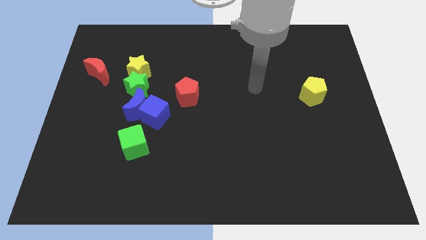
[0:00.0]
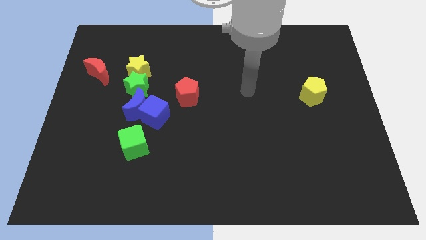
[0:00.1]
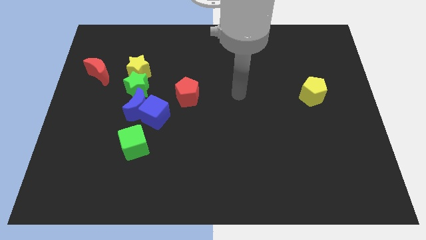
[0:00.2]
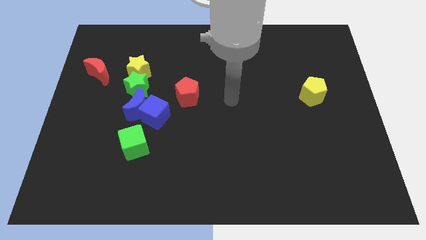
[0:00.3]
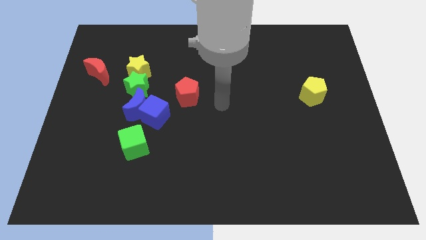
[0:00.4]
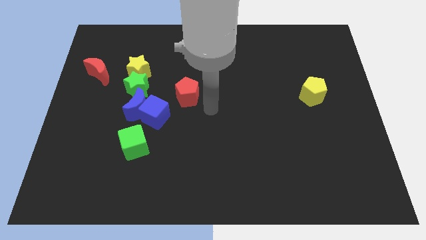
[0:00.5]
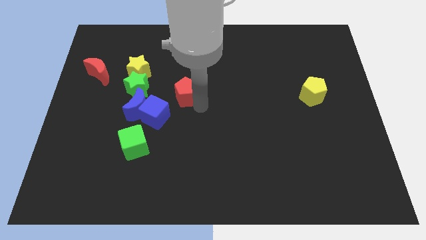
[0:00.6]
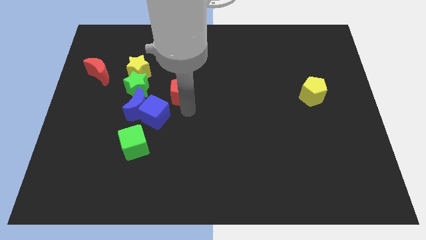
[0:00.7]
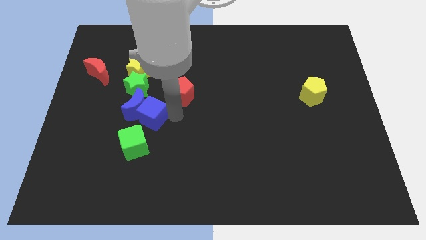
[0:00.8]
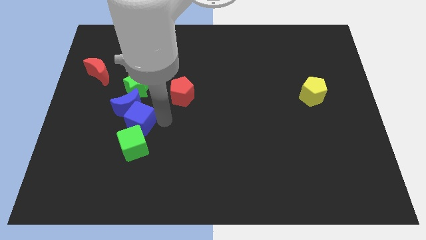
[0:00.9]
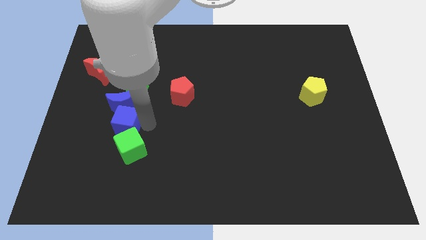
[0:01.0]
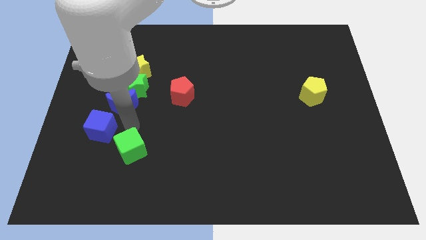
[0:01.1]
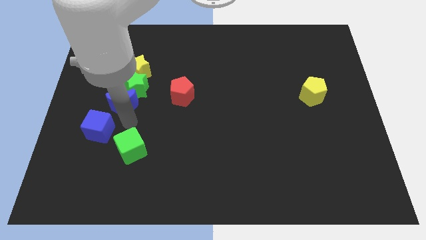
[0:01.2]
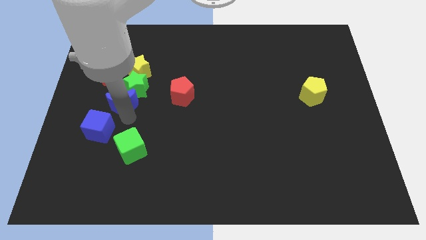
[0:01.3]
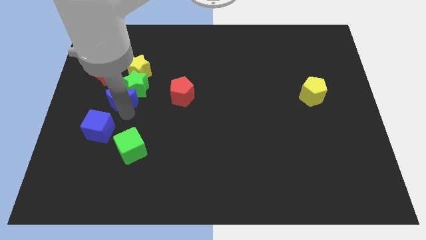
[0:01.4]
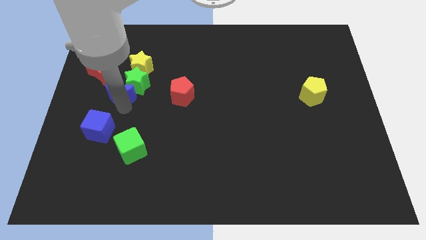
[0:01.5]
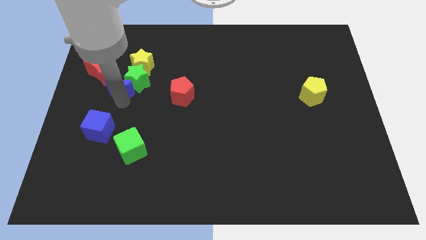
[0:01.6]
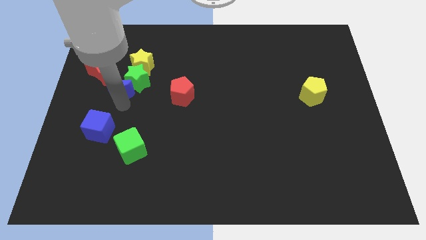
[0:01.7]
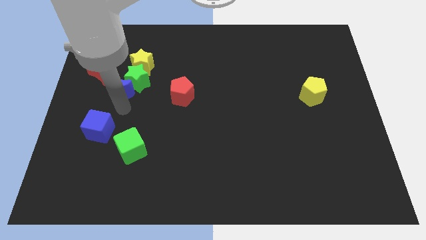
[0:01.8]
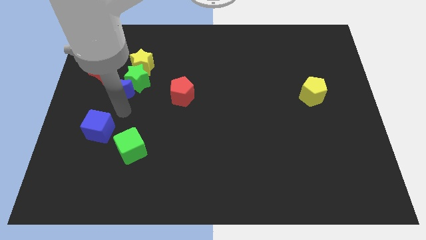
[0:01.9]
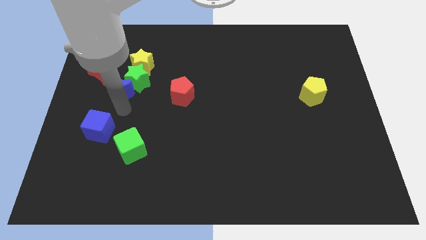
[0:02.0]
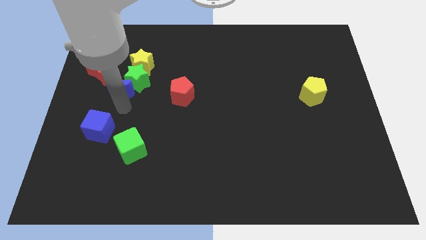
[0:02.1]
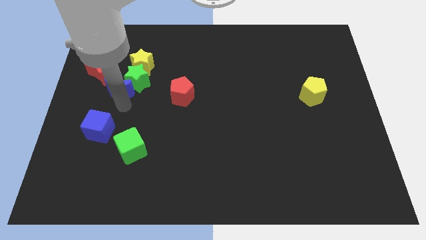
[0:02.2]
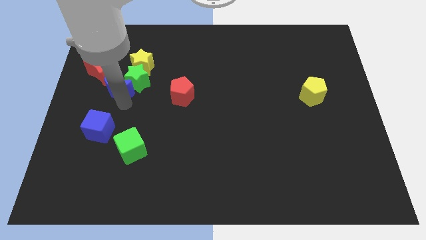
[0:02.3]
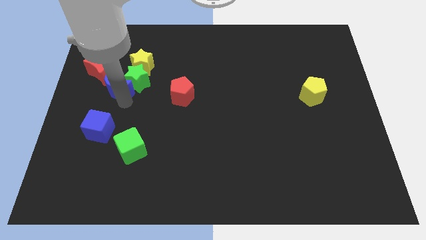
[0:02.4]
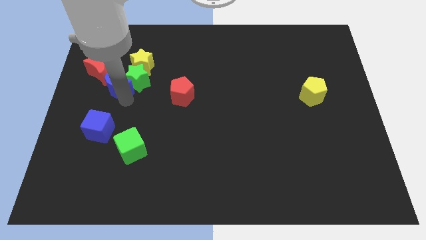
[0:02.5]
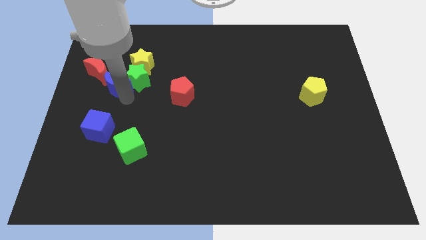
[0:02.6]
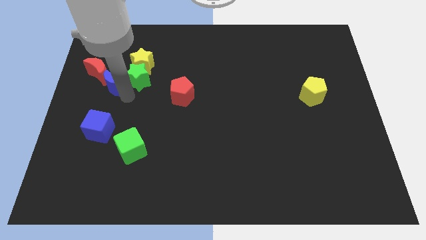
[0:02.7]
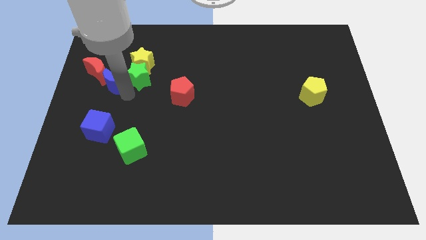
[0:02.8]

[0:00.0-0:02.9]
separate the blue moon from the clump

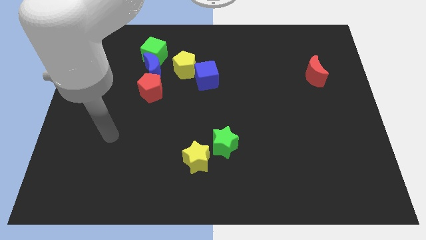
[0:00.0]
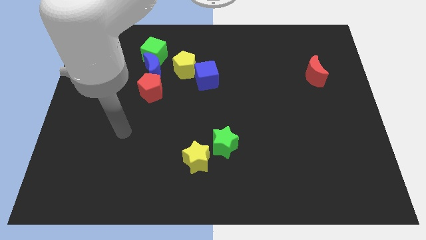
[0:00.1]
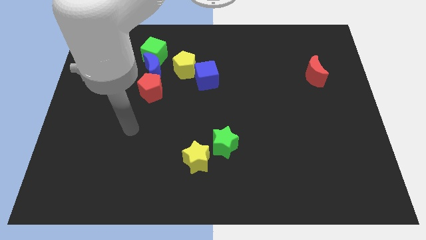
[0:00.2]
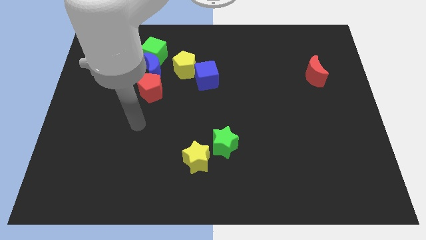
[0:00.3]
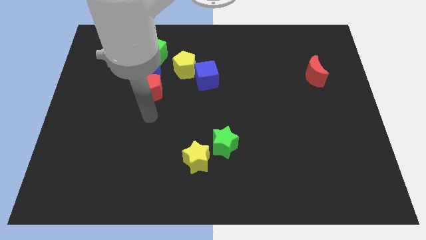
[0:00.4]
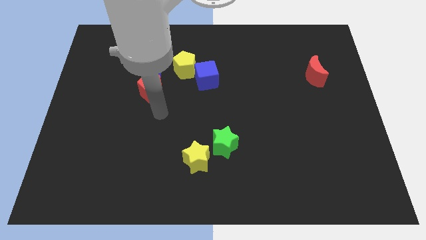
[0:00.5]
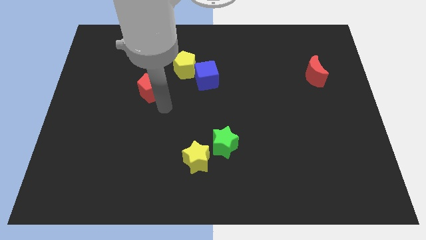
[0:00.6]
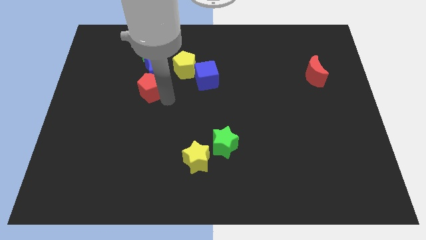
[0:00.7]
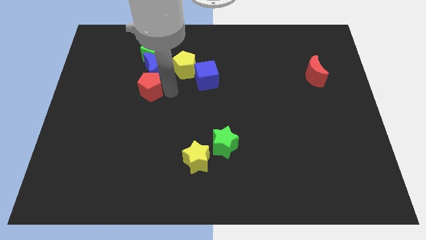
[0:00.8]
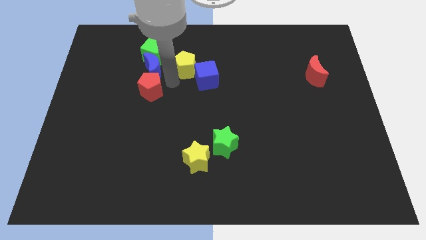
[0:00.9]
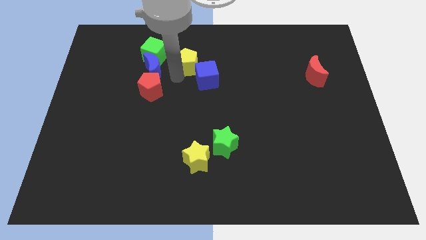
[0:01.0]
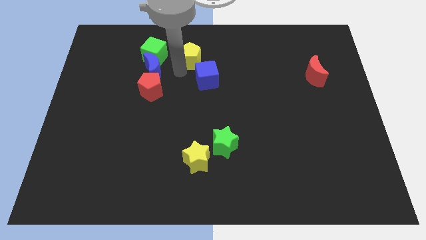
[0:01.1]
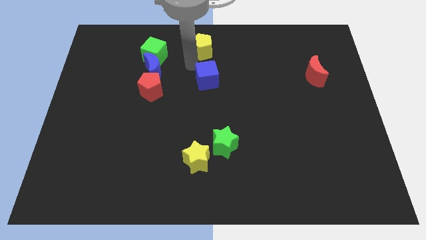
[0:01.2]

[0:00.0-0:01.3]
separate the blue cube from the yellow pentagon

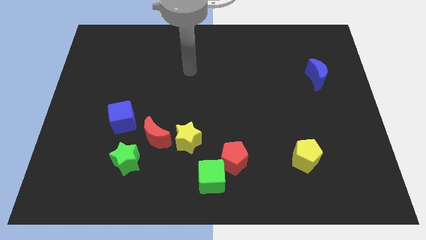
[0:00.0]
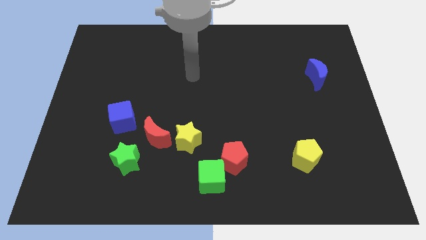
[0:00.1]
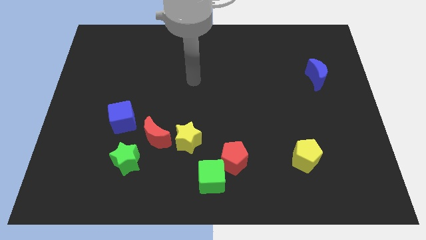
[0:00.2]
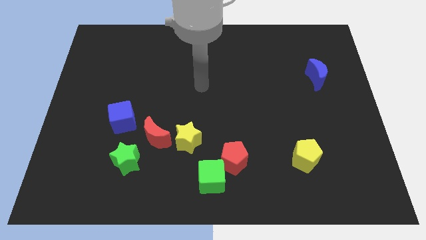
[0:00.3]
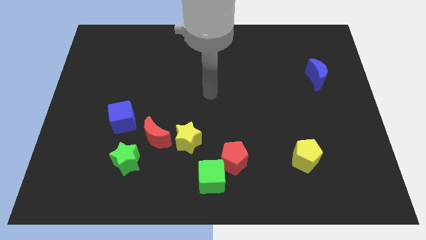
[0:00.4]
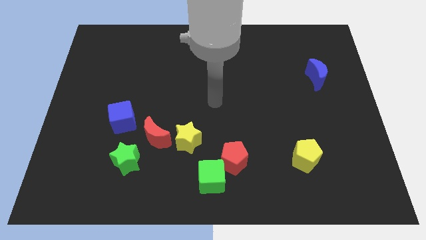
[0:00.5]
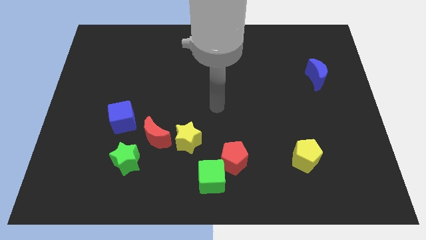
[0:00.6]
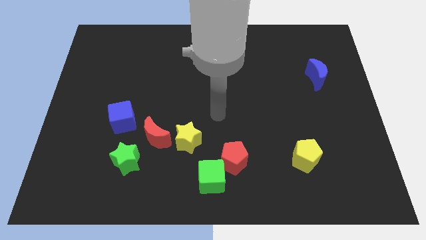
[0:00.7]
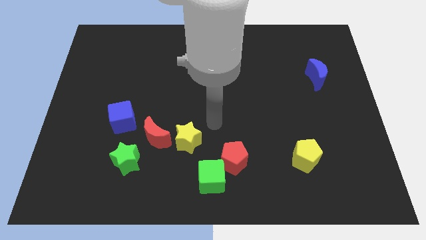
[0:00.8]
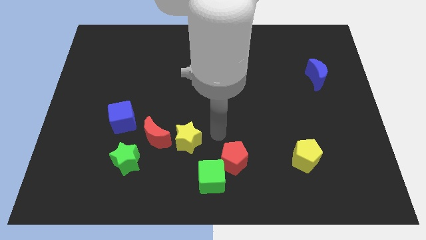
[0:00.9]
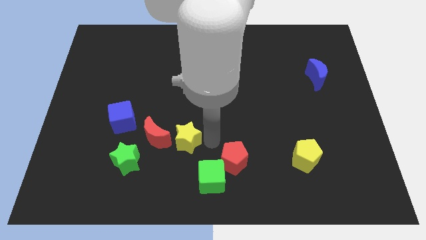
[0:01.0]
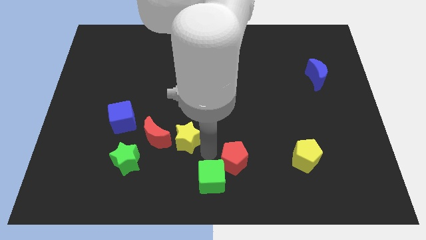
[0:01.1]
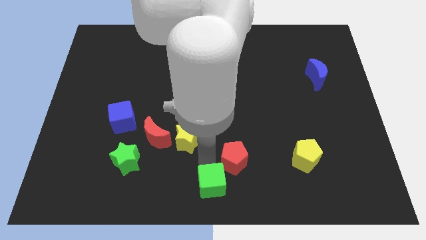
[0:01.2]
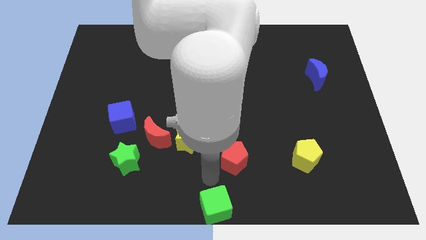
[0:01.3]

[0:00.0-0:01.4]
pull the red pentagon apart from the green cube

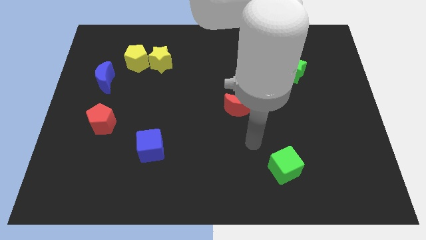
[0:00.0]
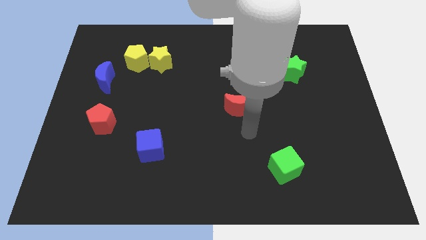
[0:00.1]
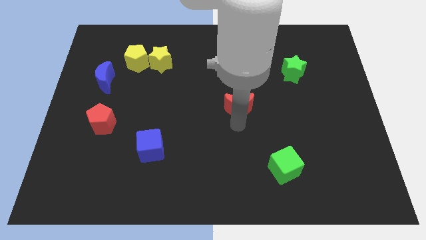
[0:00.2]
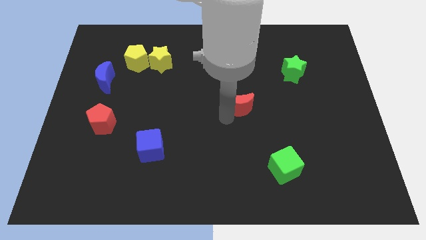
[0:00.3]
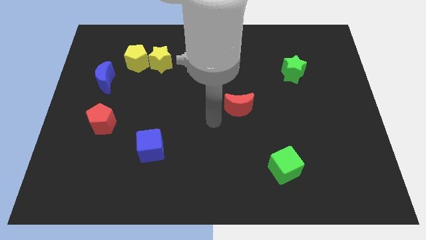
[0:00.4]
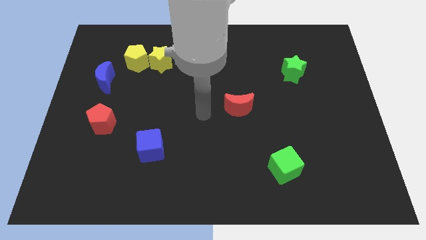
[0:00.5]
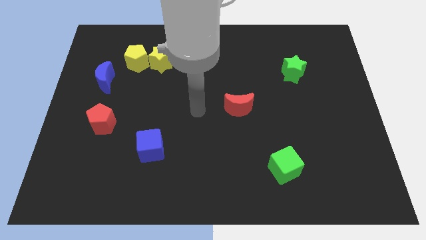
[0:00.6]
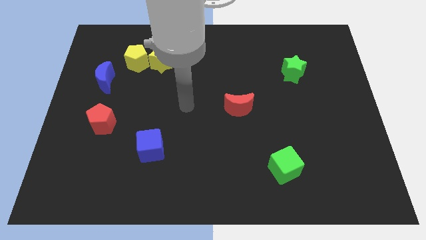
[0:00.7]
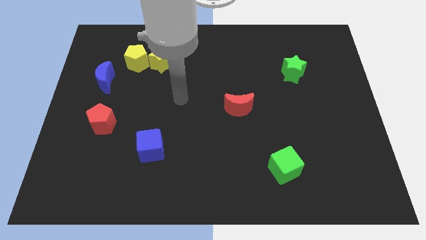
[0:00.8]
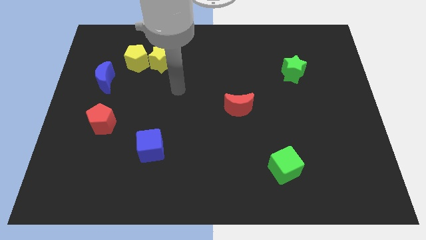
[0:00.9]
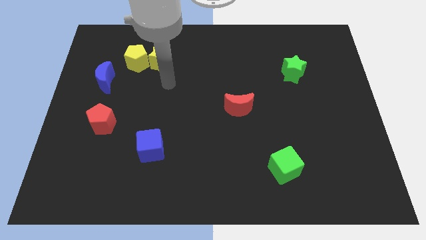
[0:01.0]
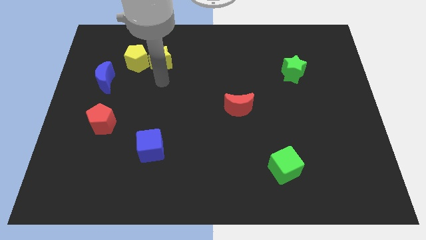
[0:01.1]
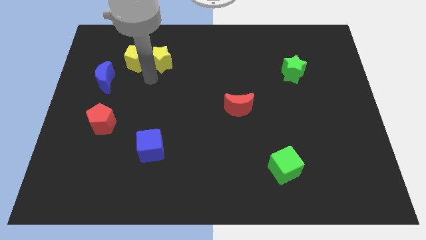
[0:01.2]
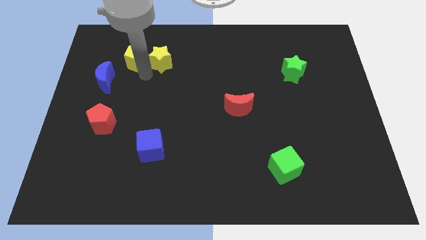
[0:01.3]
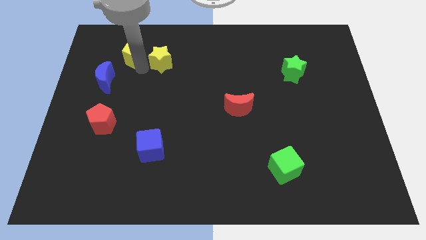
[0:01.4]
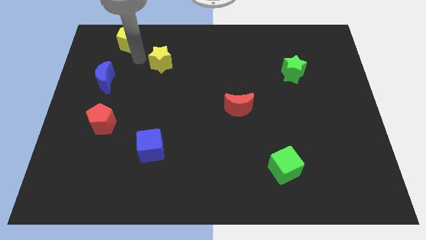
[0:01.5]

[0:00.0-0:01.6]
separate the yellow star from the yellow pentagon

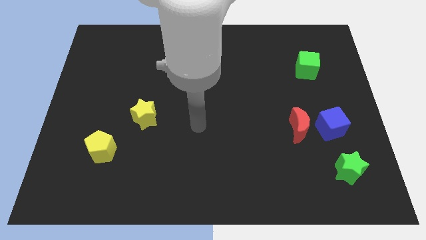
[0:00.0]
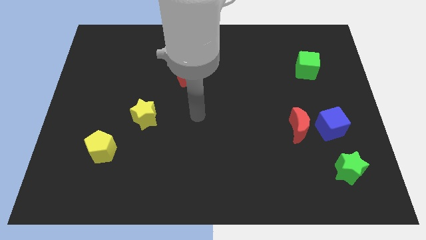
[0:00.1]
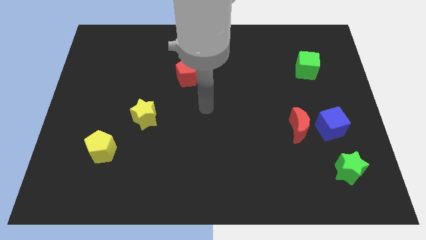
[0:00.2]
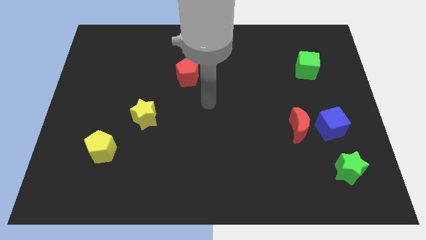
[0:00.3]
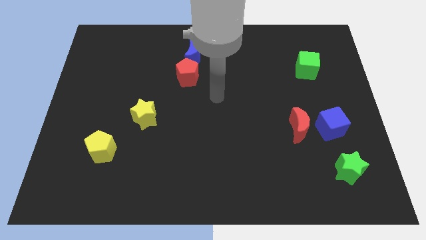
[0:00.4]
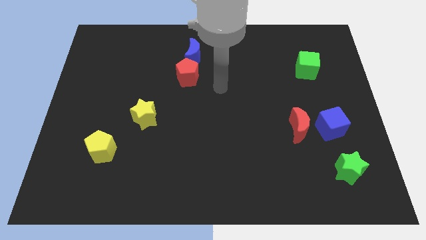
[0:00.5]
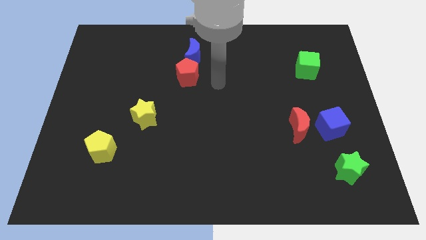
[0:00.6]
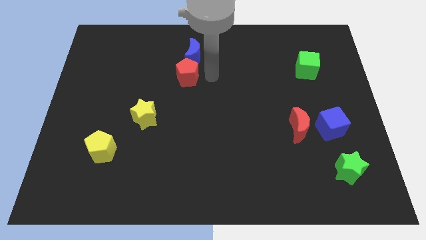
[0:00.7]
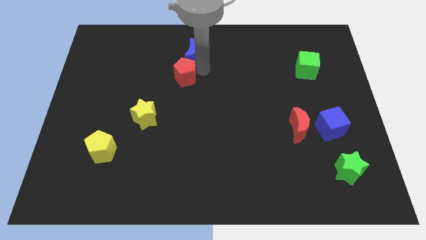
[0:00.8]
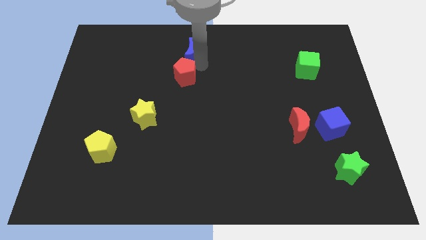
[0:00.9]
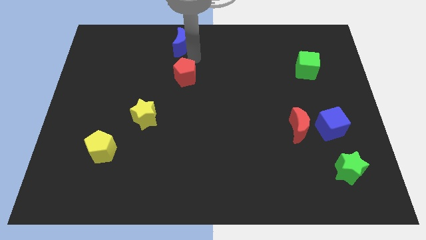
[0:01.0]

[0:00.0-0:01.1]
pull the red pentagon apart from the blue moon

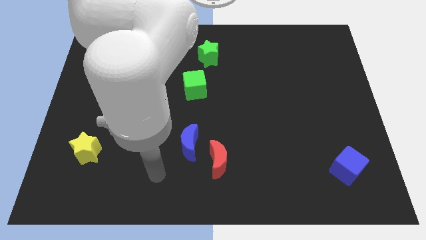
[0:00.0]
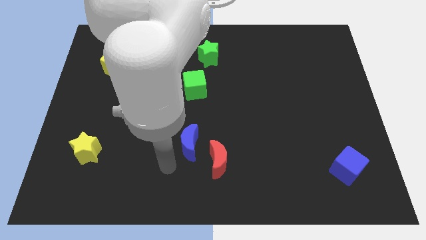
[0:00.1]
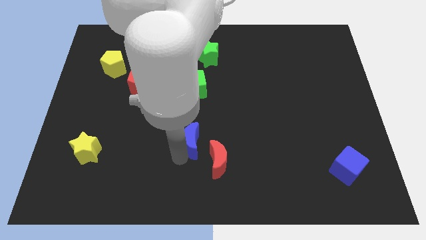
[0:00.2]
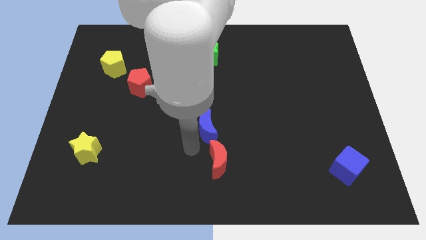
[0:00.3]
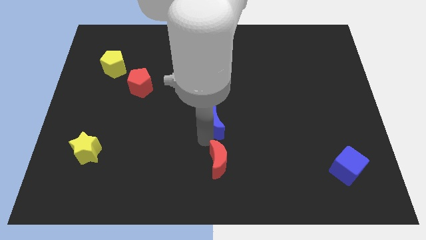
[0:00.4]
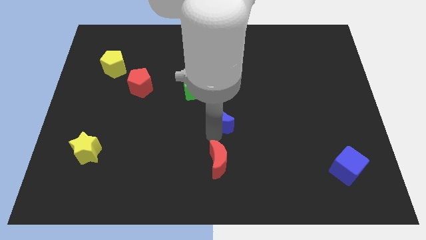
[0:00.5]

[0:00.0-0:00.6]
move the red moon away from the blue moon

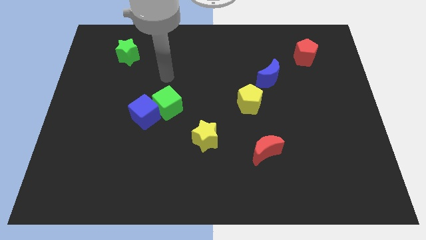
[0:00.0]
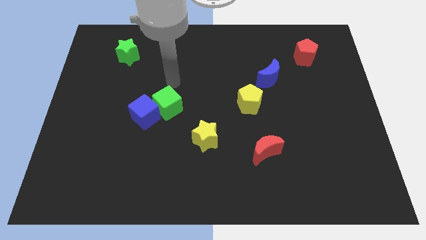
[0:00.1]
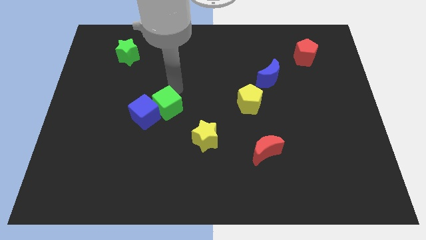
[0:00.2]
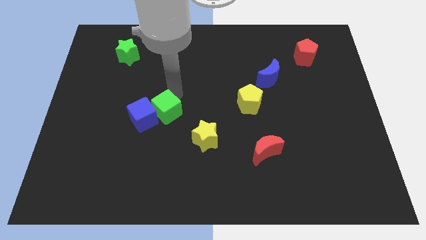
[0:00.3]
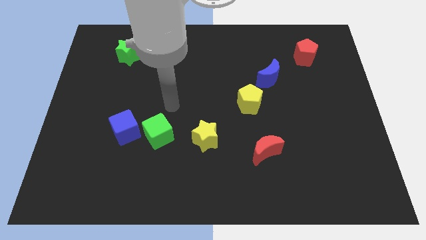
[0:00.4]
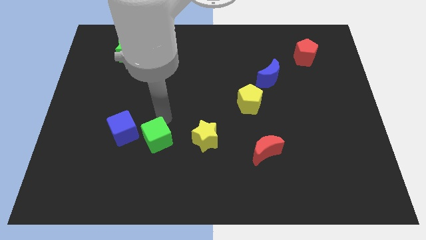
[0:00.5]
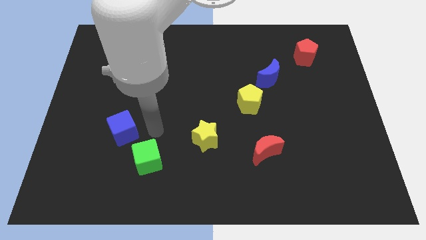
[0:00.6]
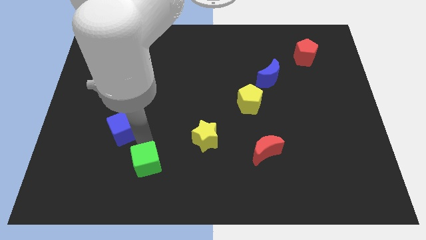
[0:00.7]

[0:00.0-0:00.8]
separate the blue cube from the green cube
